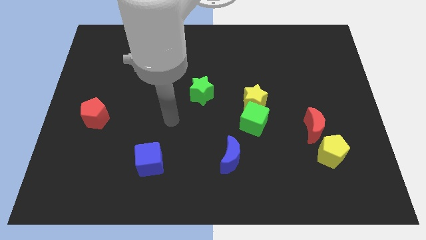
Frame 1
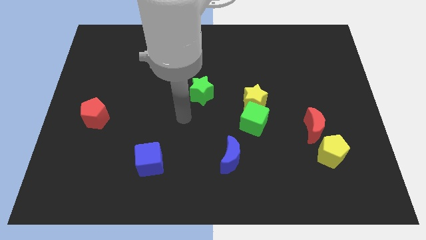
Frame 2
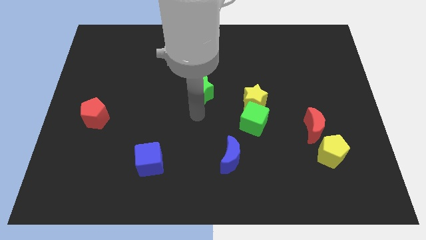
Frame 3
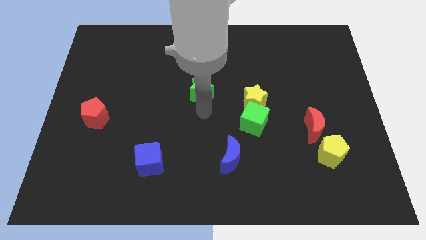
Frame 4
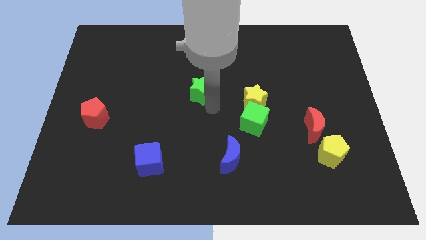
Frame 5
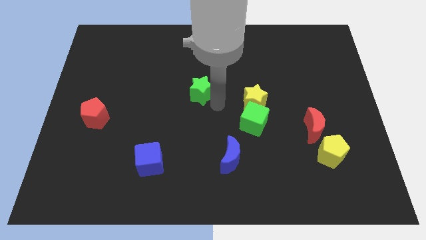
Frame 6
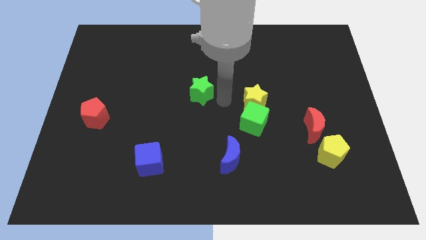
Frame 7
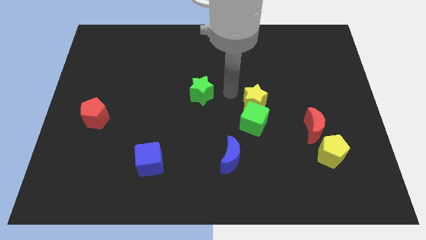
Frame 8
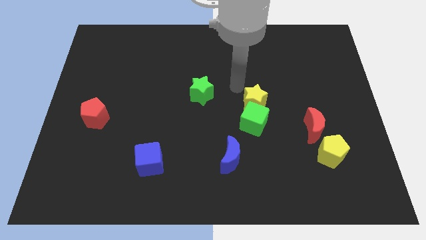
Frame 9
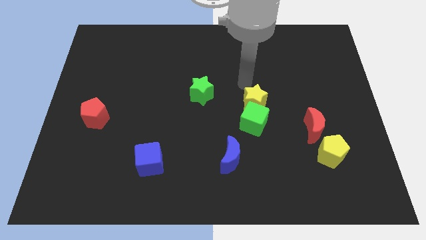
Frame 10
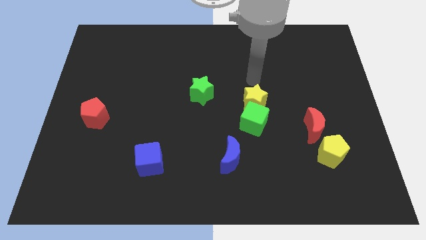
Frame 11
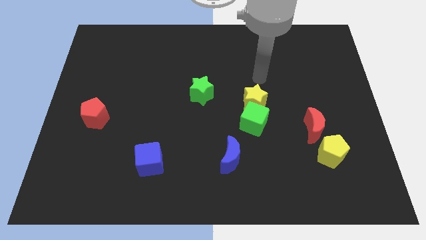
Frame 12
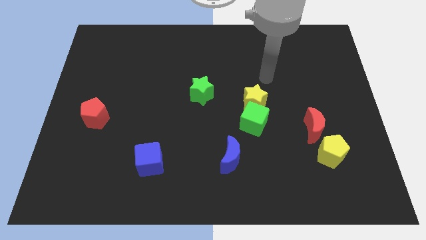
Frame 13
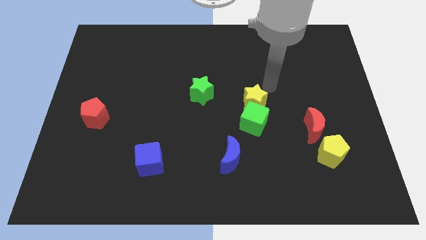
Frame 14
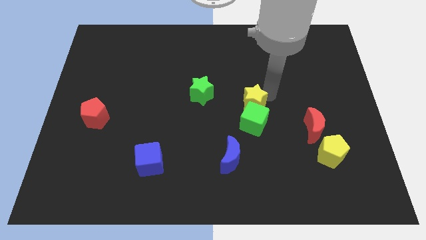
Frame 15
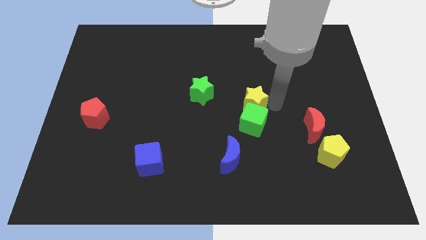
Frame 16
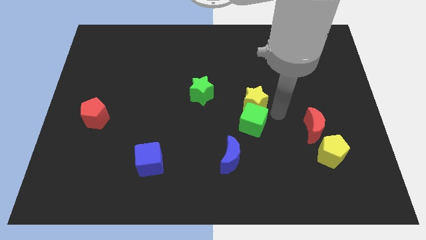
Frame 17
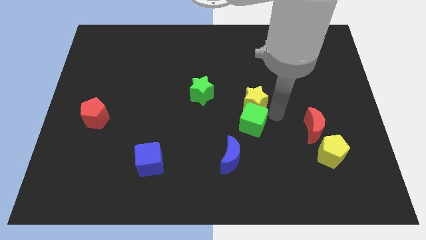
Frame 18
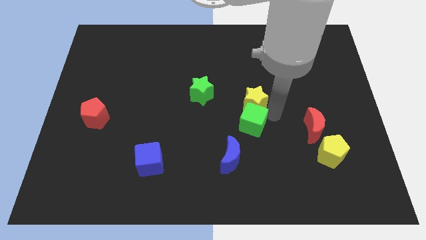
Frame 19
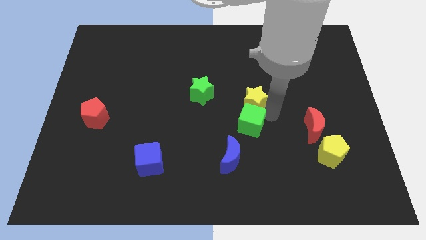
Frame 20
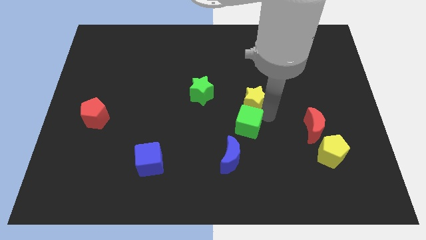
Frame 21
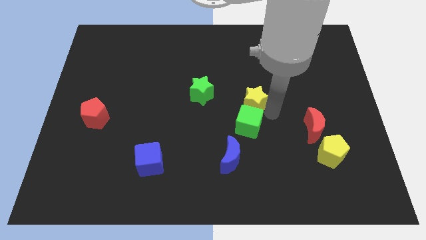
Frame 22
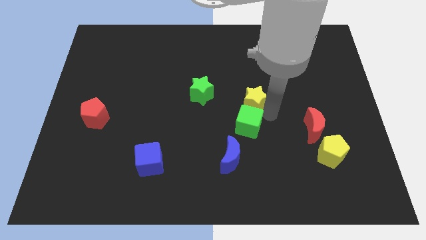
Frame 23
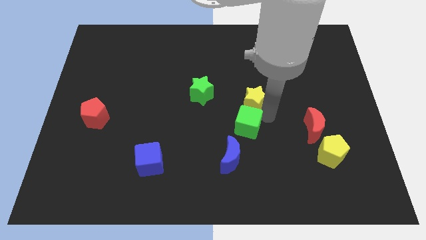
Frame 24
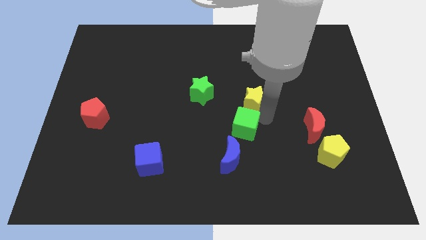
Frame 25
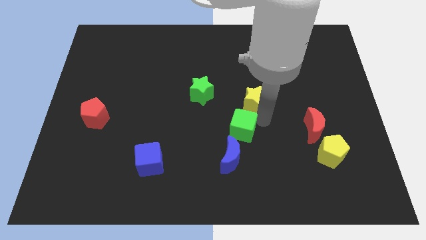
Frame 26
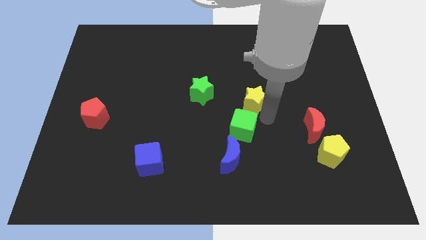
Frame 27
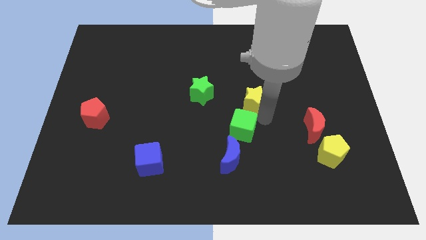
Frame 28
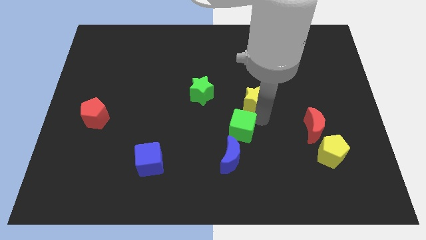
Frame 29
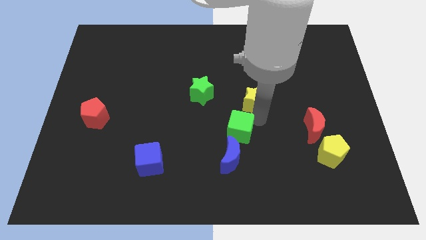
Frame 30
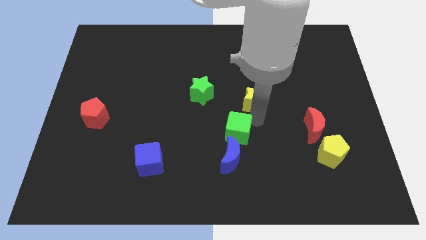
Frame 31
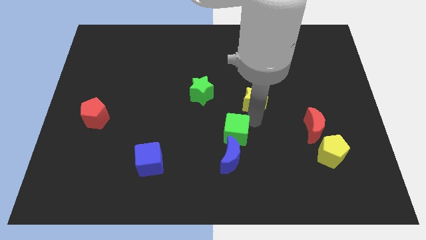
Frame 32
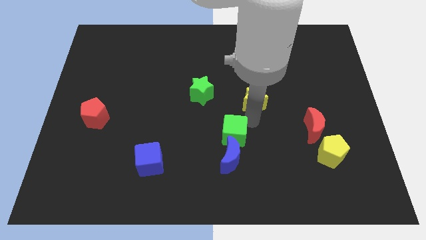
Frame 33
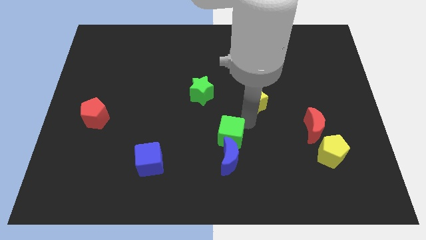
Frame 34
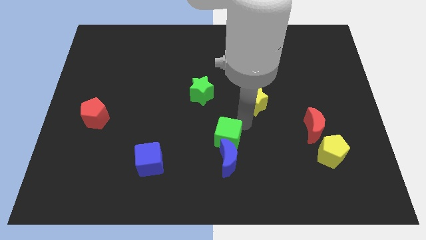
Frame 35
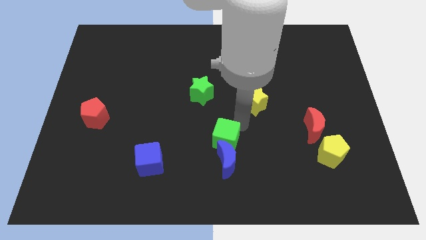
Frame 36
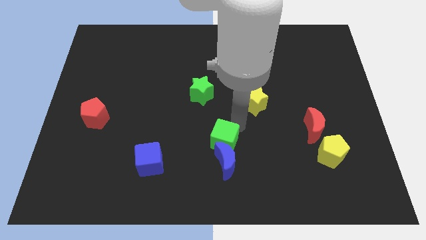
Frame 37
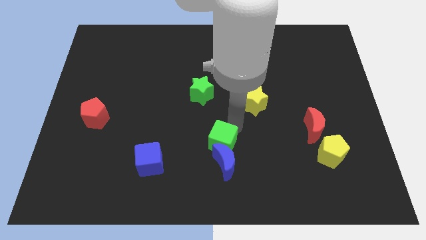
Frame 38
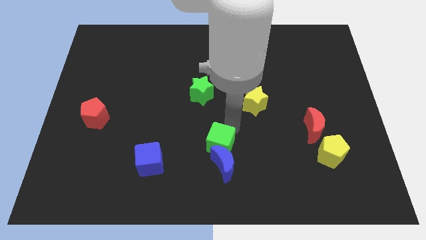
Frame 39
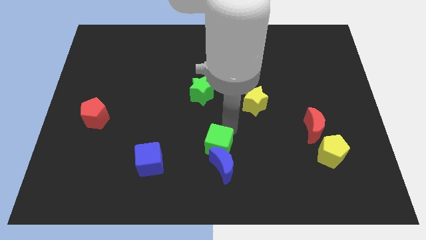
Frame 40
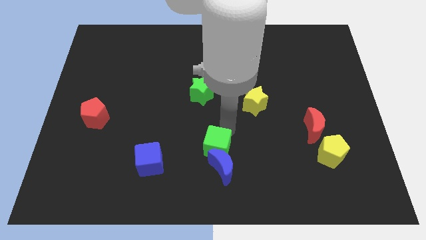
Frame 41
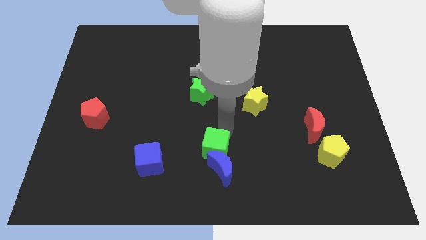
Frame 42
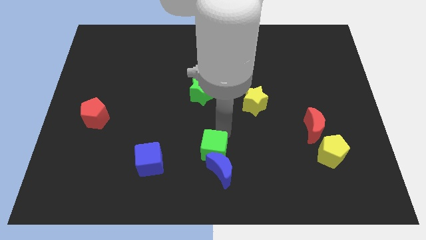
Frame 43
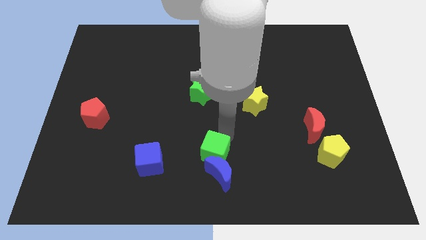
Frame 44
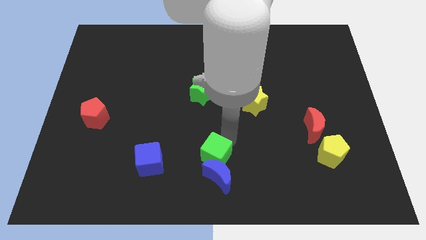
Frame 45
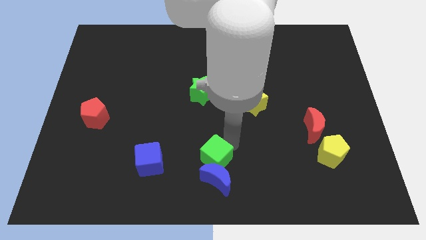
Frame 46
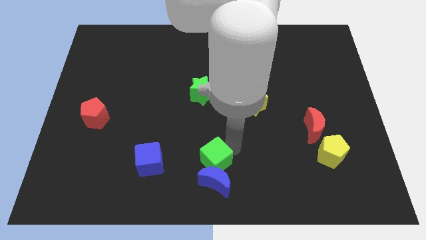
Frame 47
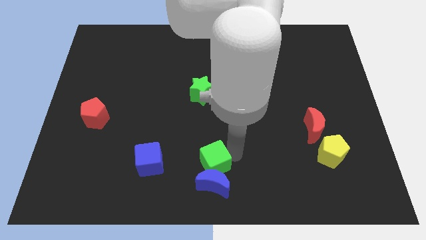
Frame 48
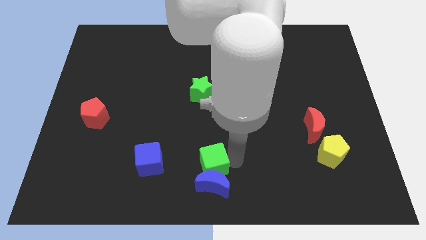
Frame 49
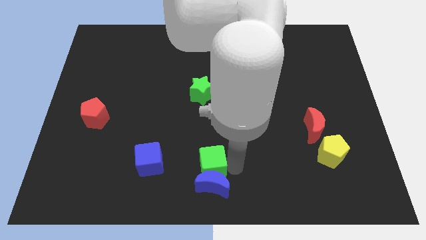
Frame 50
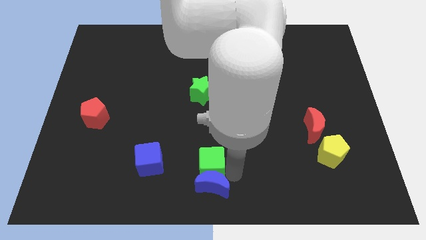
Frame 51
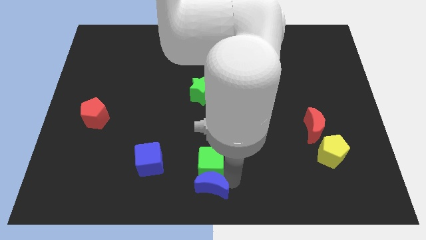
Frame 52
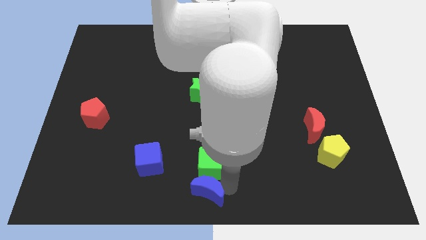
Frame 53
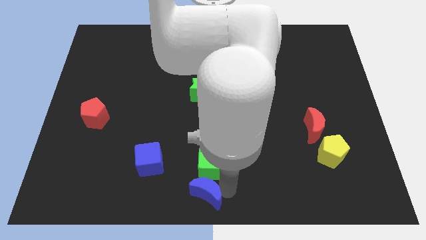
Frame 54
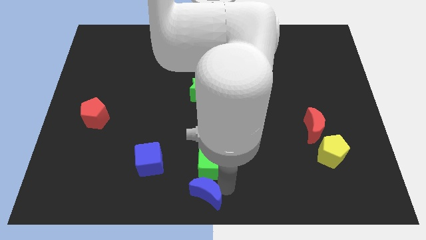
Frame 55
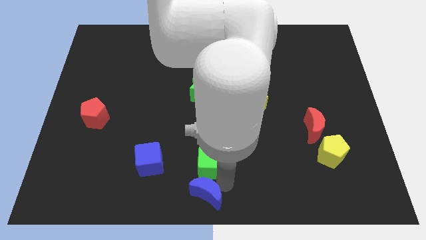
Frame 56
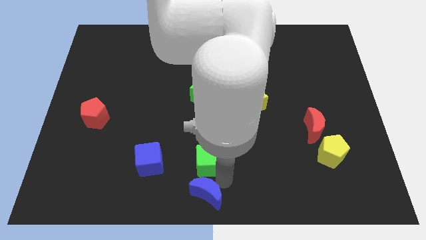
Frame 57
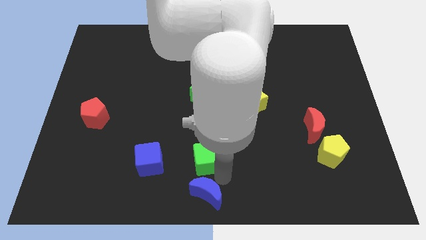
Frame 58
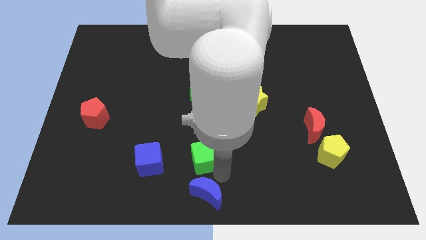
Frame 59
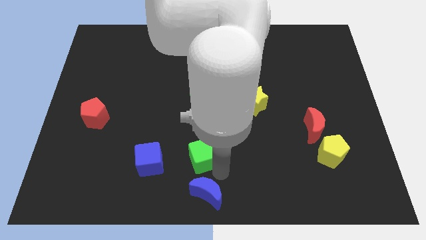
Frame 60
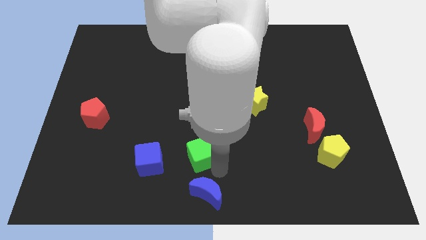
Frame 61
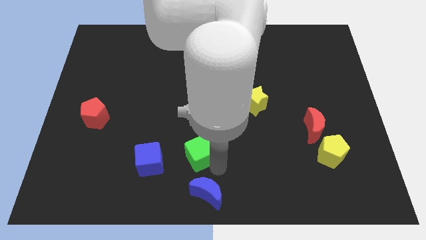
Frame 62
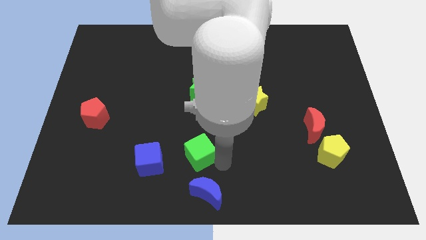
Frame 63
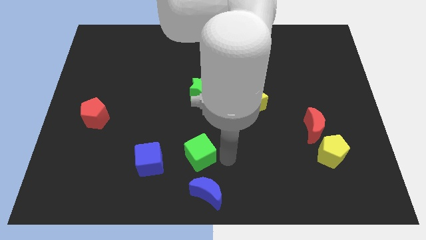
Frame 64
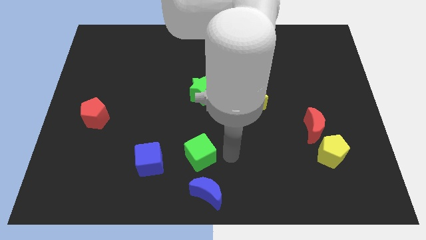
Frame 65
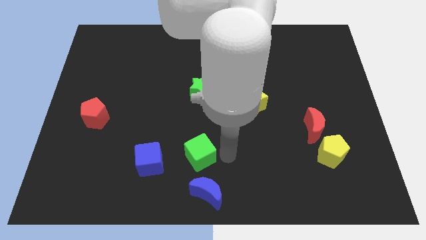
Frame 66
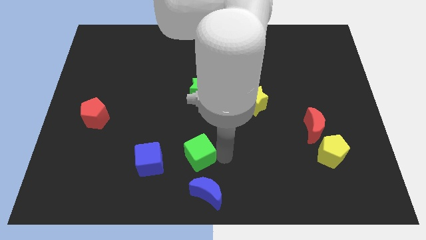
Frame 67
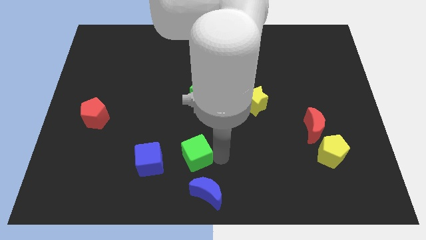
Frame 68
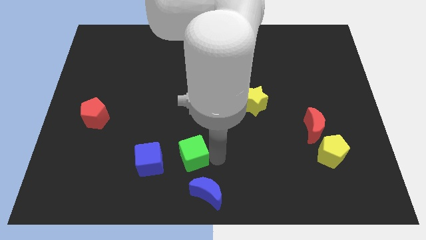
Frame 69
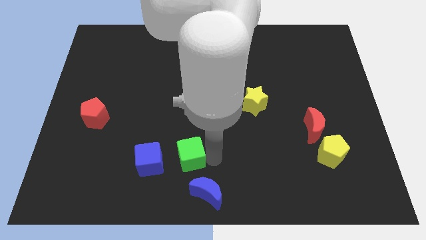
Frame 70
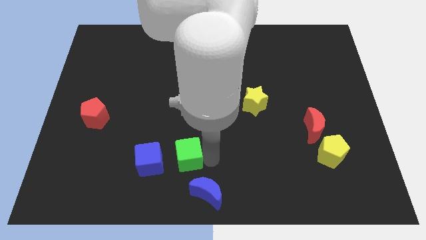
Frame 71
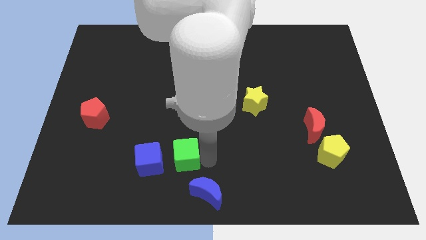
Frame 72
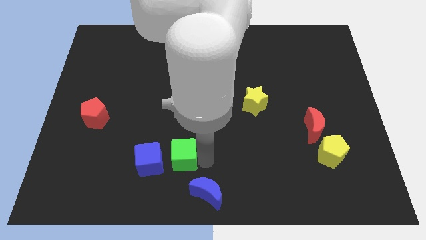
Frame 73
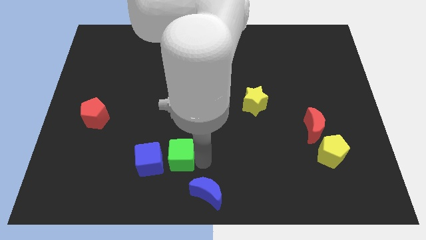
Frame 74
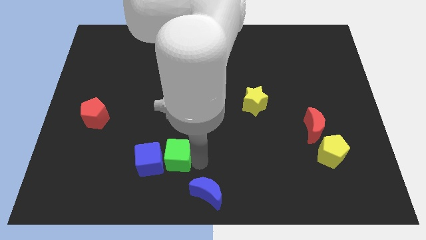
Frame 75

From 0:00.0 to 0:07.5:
move the green cube towards the blue cube
